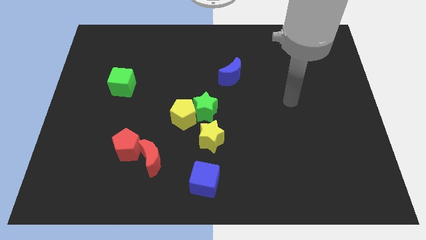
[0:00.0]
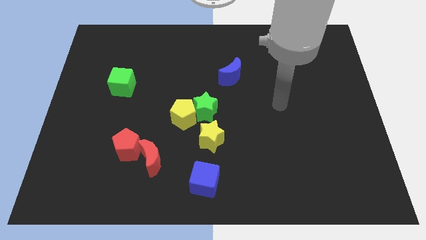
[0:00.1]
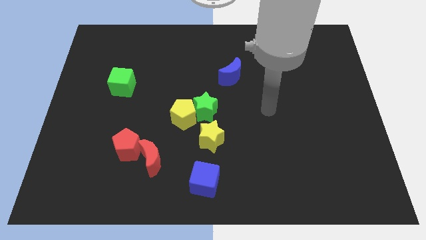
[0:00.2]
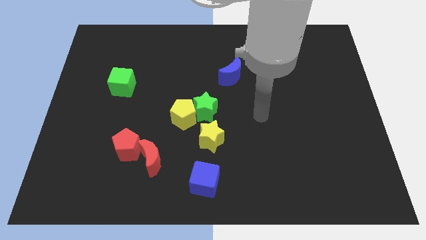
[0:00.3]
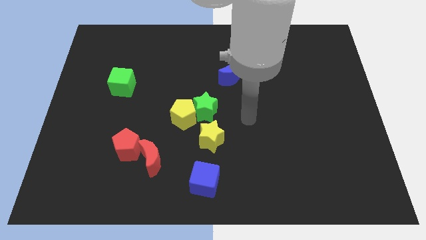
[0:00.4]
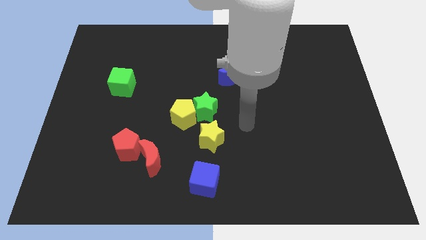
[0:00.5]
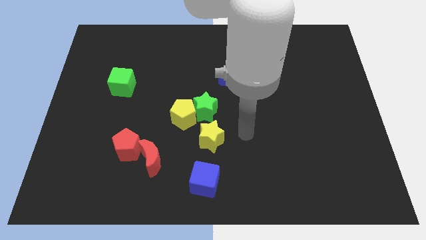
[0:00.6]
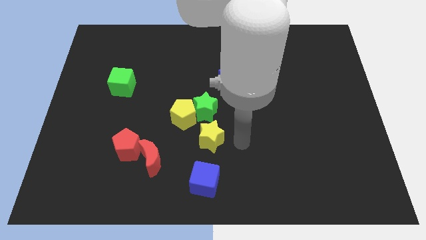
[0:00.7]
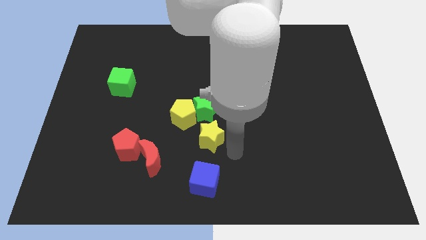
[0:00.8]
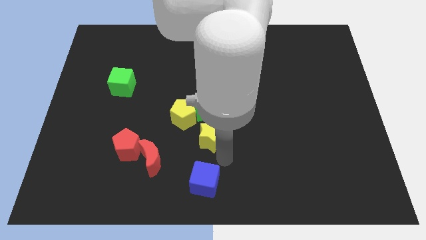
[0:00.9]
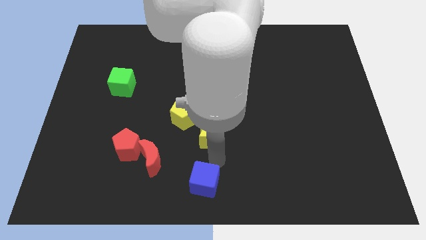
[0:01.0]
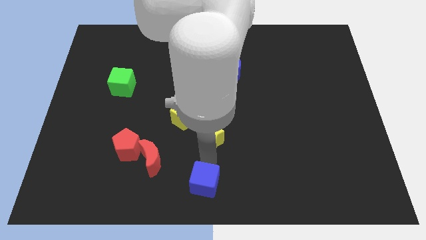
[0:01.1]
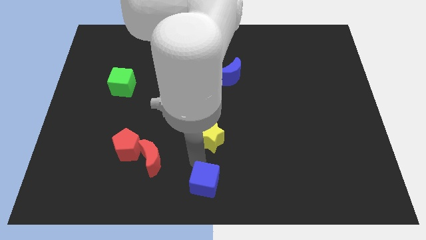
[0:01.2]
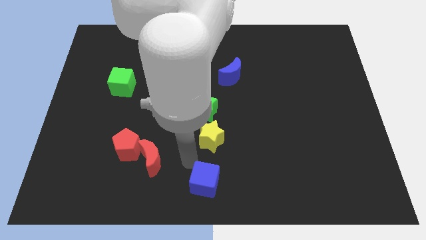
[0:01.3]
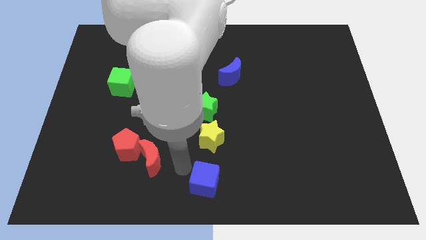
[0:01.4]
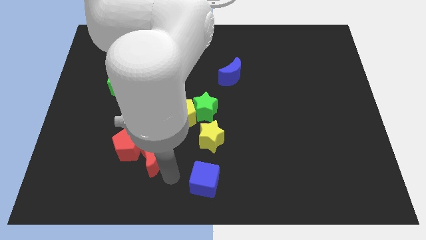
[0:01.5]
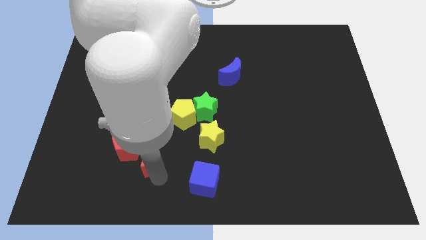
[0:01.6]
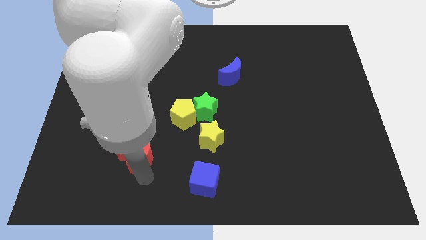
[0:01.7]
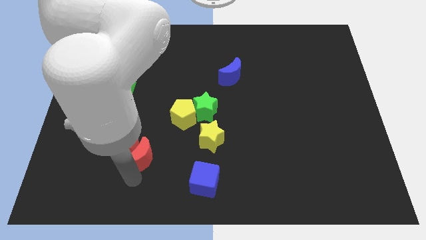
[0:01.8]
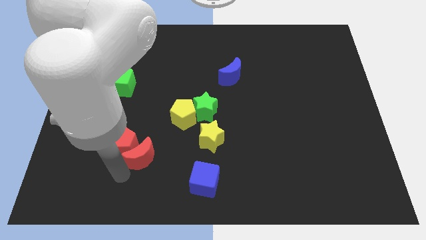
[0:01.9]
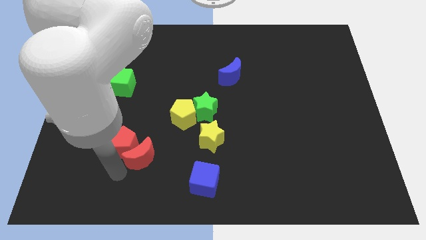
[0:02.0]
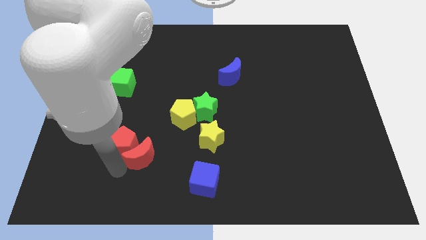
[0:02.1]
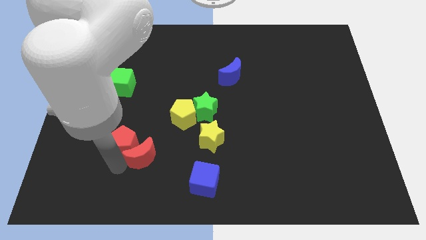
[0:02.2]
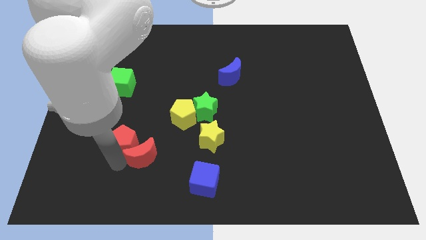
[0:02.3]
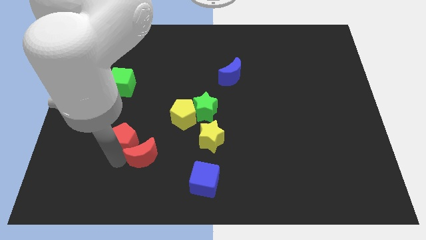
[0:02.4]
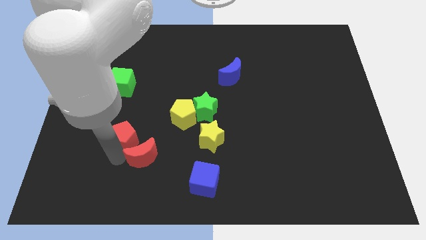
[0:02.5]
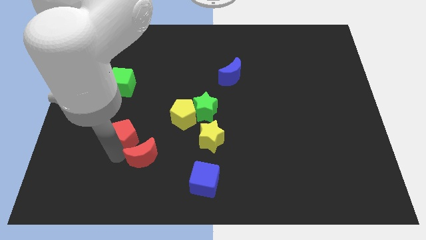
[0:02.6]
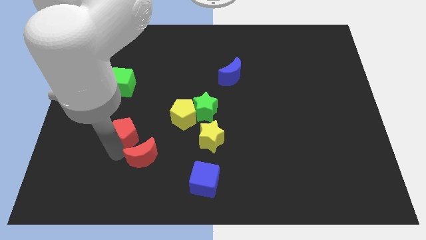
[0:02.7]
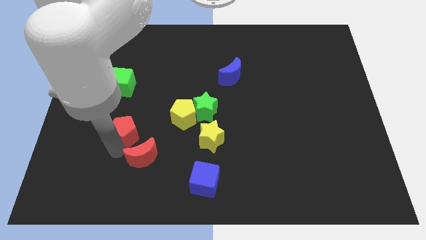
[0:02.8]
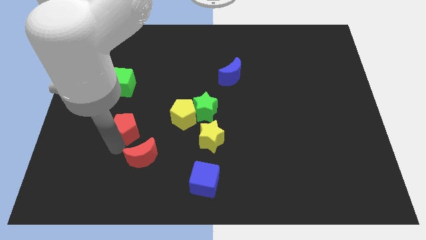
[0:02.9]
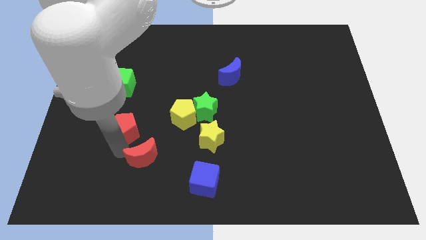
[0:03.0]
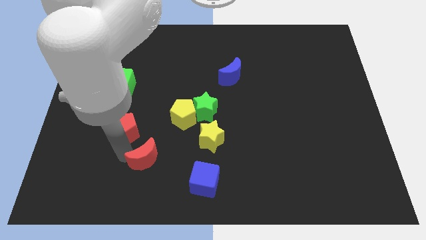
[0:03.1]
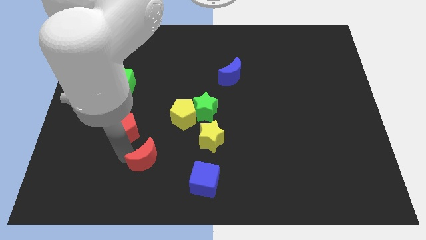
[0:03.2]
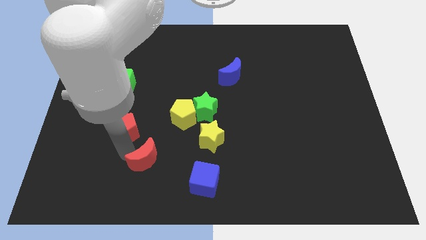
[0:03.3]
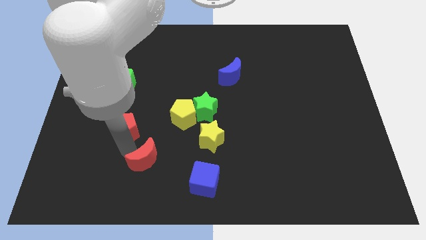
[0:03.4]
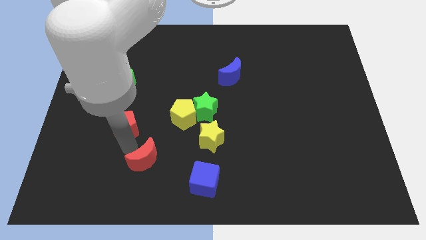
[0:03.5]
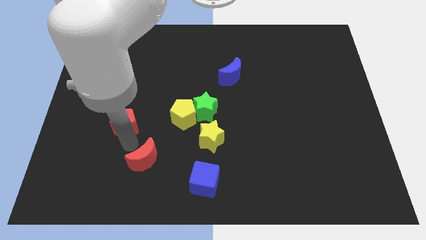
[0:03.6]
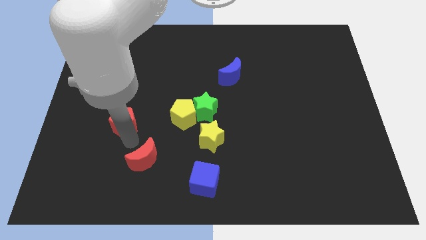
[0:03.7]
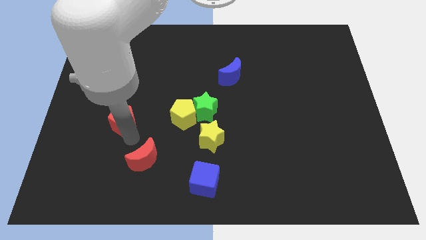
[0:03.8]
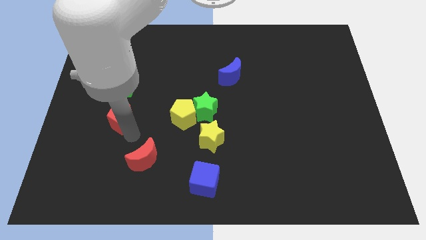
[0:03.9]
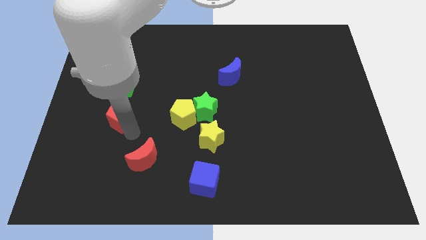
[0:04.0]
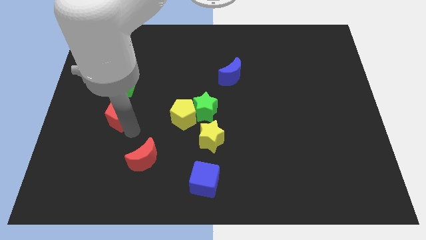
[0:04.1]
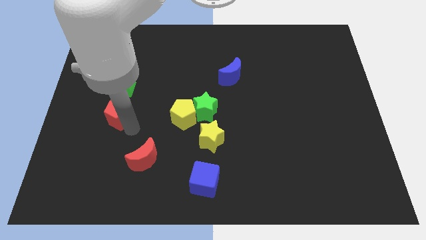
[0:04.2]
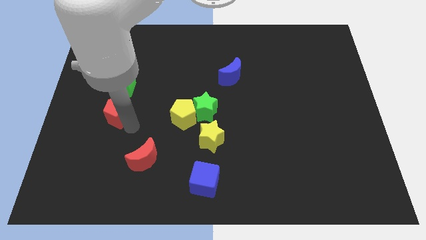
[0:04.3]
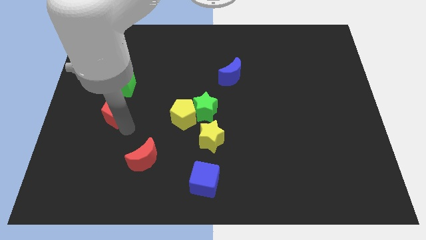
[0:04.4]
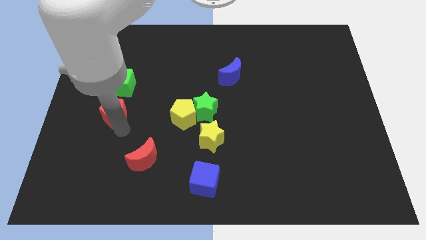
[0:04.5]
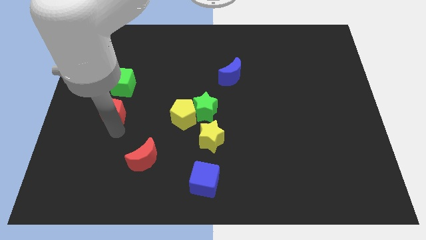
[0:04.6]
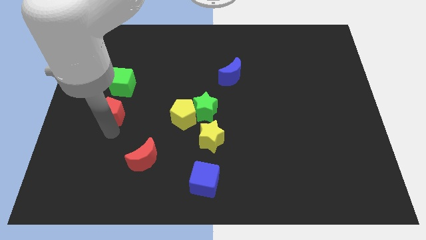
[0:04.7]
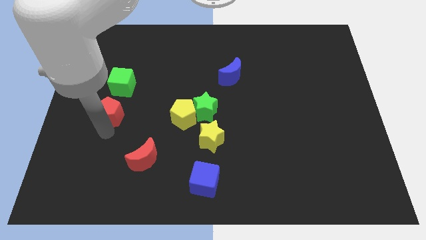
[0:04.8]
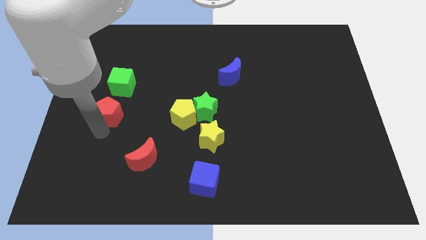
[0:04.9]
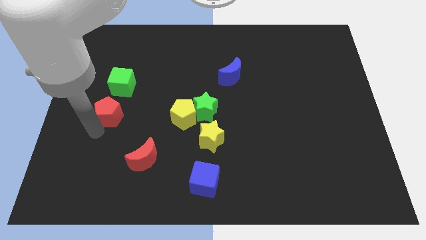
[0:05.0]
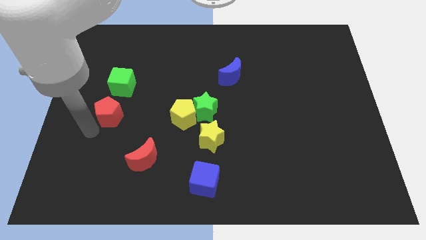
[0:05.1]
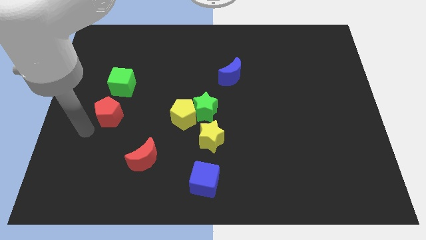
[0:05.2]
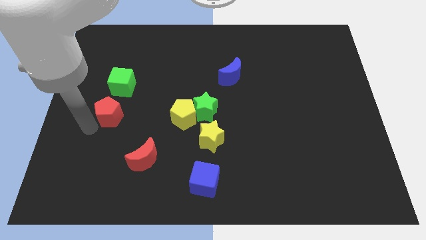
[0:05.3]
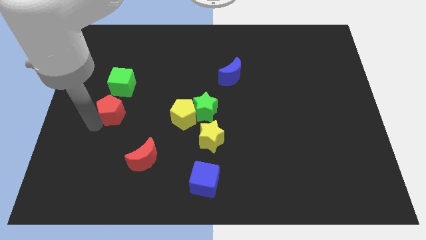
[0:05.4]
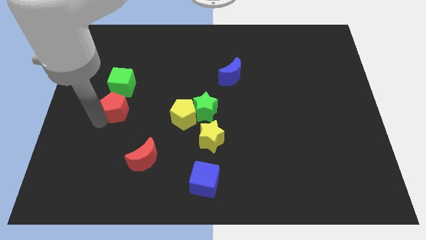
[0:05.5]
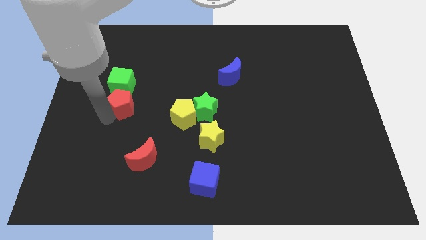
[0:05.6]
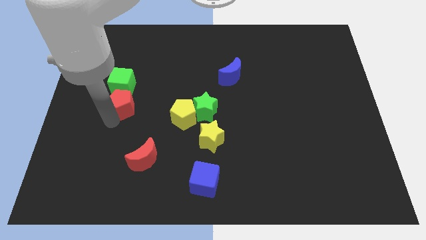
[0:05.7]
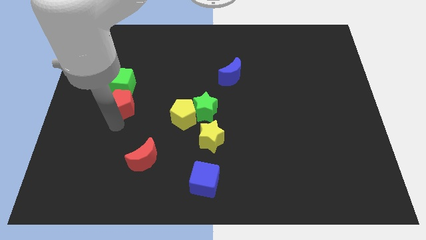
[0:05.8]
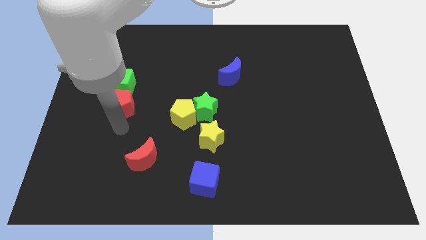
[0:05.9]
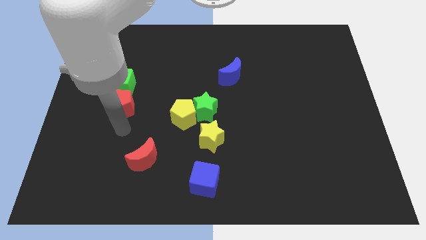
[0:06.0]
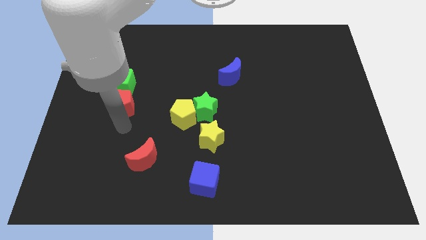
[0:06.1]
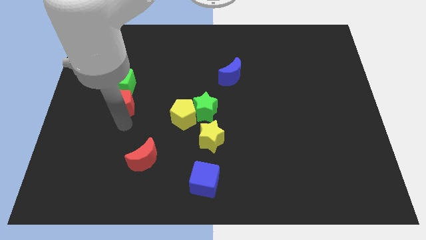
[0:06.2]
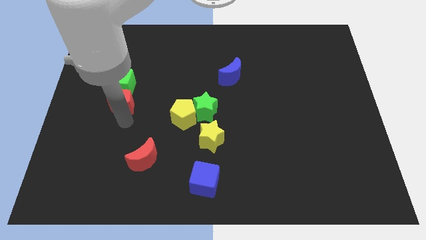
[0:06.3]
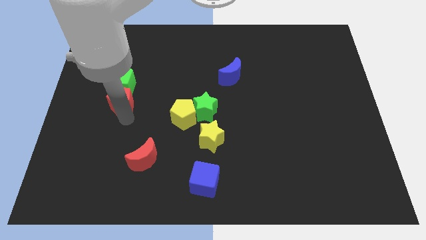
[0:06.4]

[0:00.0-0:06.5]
push the red pentagon close to the green cube
